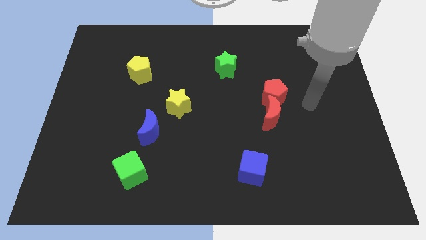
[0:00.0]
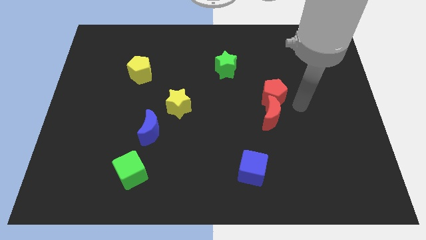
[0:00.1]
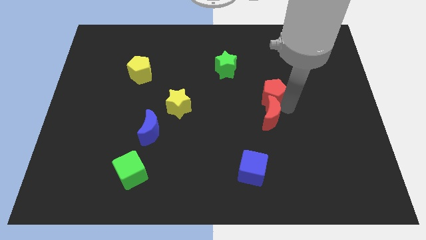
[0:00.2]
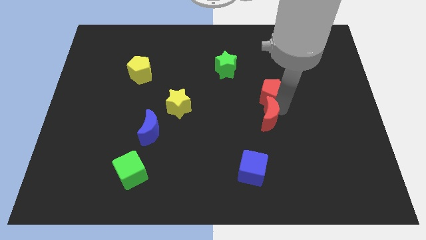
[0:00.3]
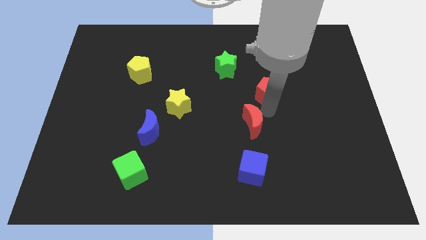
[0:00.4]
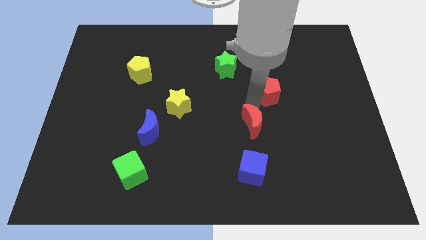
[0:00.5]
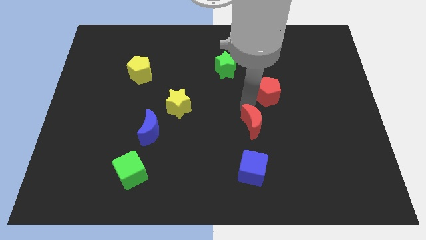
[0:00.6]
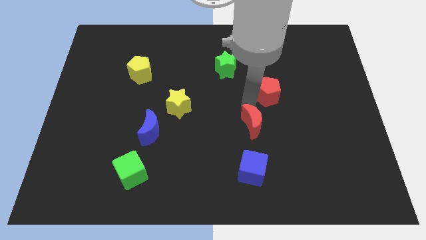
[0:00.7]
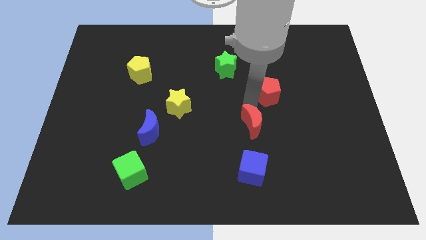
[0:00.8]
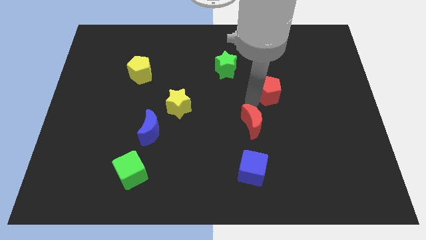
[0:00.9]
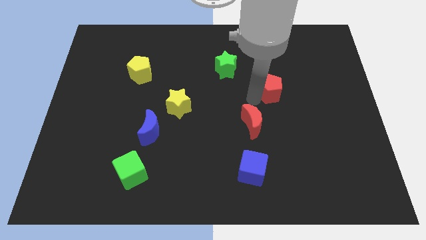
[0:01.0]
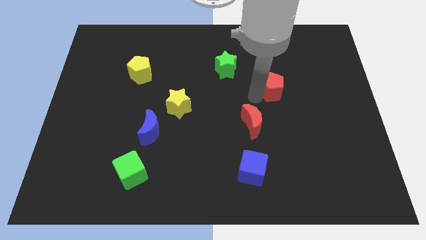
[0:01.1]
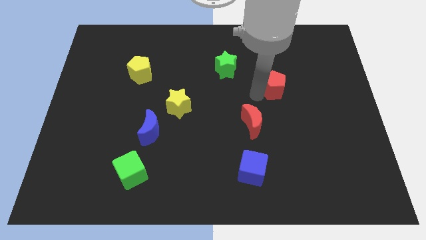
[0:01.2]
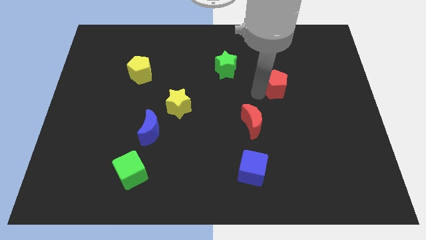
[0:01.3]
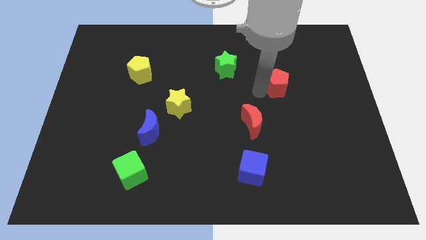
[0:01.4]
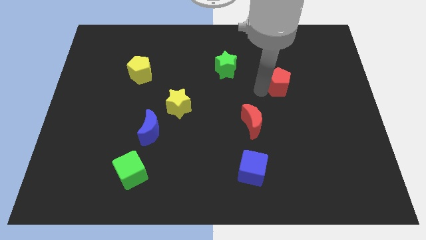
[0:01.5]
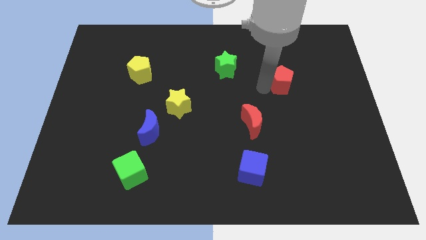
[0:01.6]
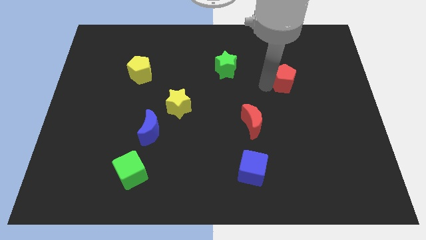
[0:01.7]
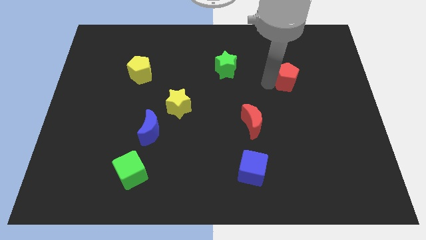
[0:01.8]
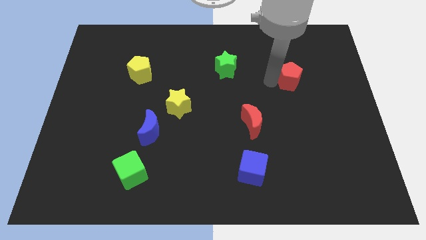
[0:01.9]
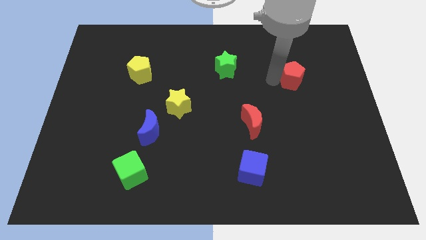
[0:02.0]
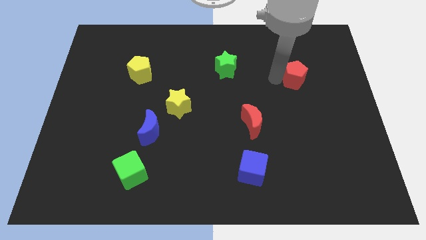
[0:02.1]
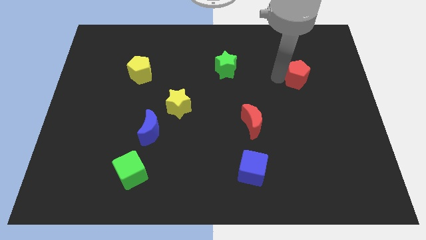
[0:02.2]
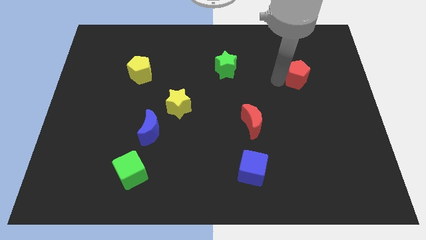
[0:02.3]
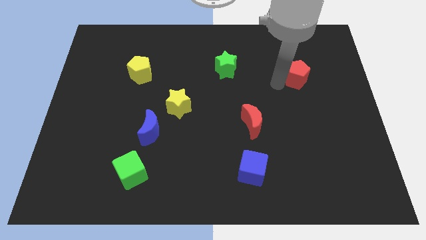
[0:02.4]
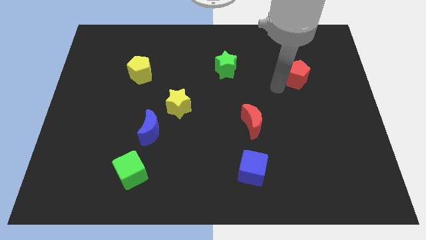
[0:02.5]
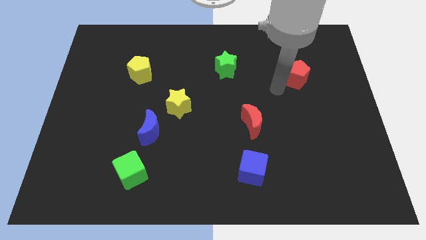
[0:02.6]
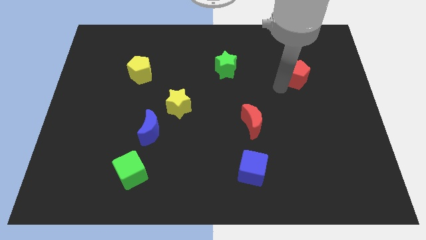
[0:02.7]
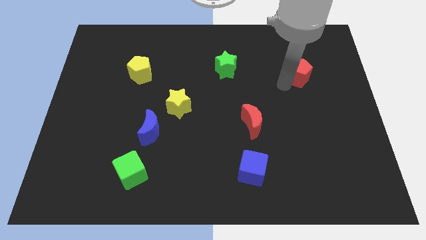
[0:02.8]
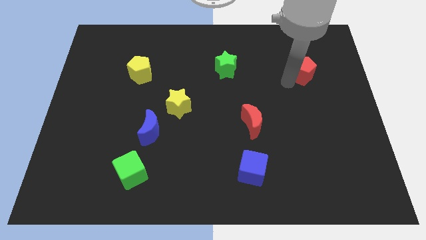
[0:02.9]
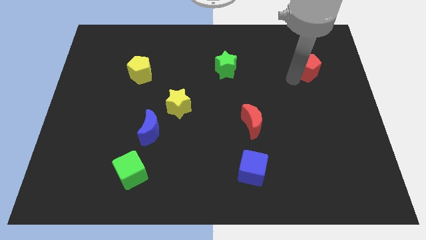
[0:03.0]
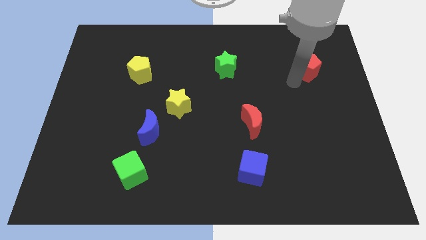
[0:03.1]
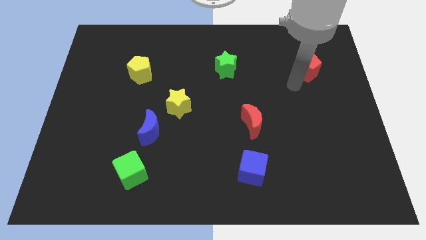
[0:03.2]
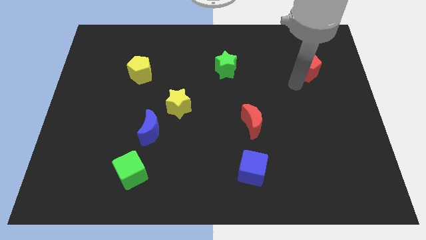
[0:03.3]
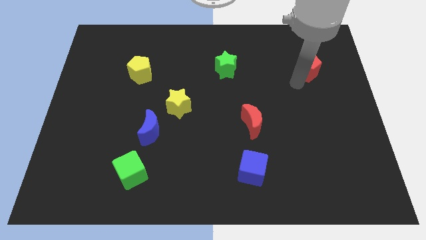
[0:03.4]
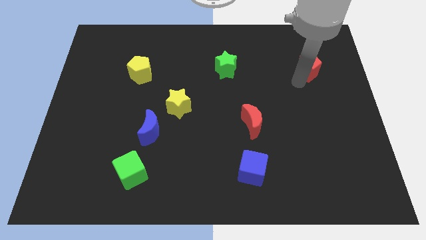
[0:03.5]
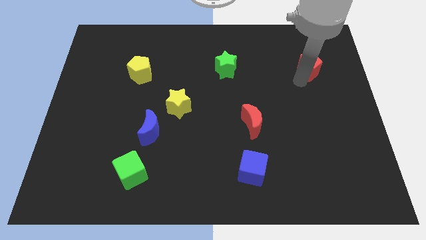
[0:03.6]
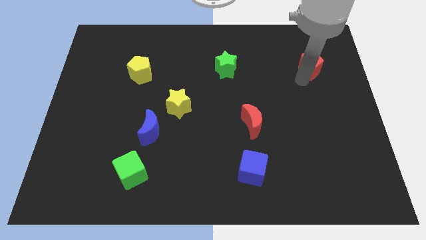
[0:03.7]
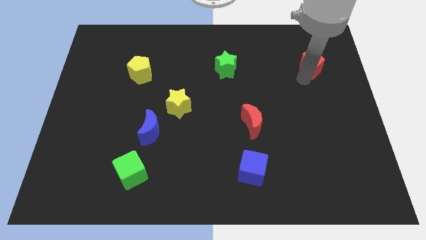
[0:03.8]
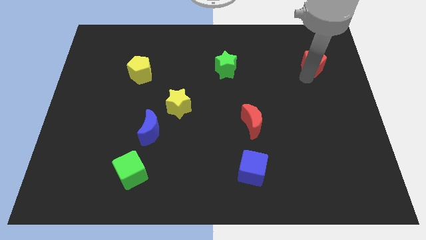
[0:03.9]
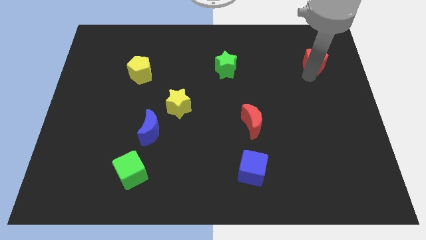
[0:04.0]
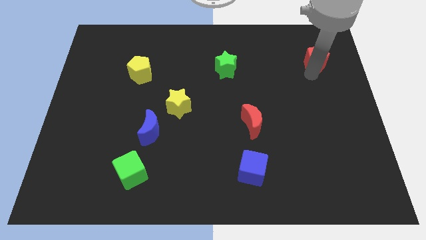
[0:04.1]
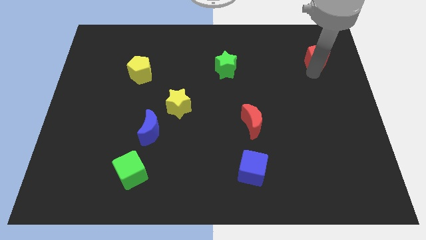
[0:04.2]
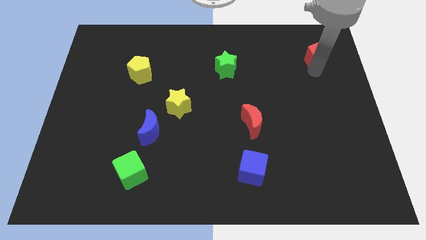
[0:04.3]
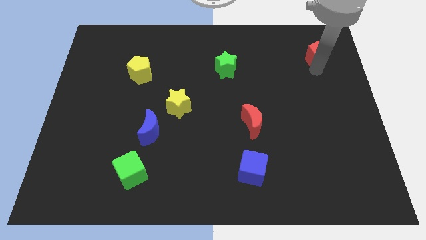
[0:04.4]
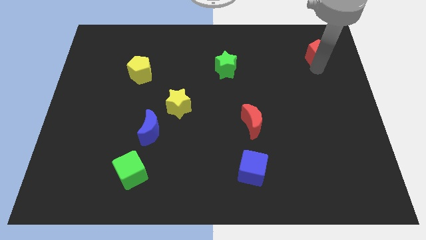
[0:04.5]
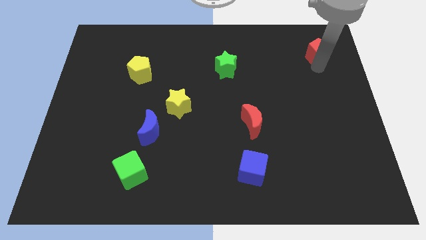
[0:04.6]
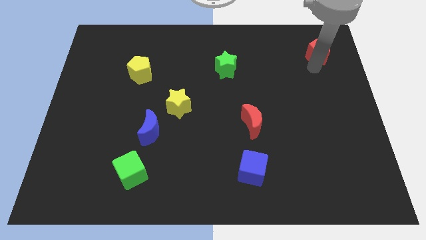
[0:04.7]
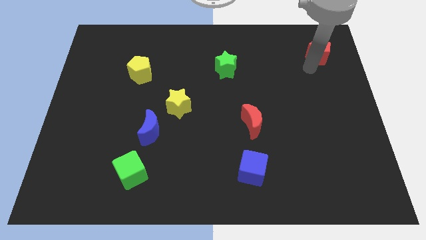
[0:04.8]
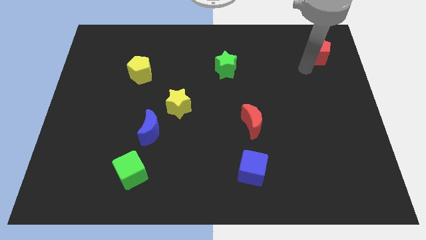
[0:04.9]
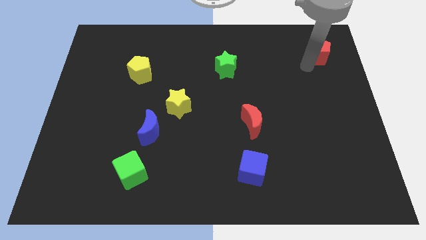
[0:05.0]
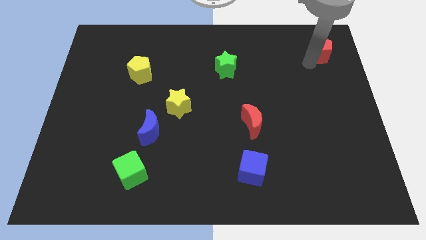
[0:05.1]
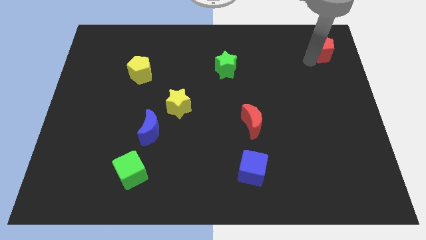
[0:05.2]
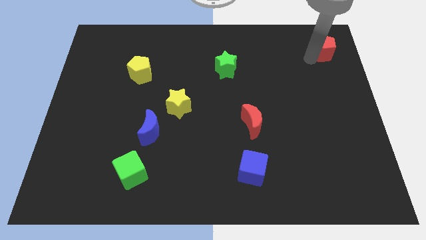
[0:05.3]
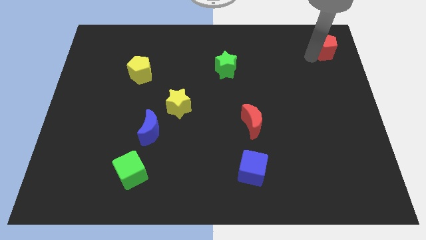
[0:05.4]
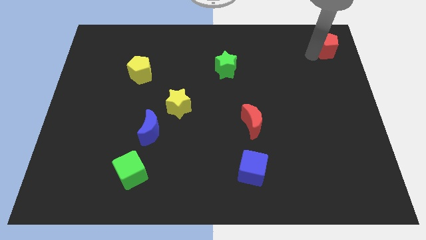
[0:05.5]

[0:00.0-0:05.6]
slide the red pentagon to the top right corner

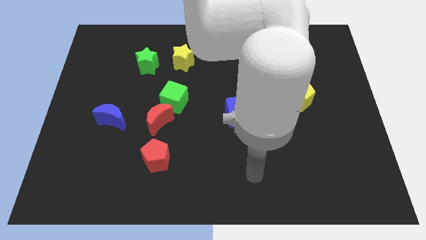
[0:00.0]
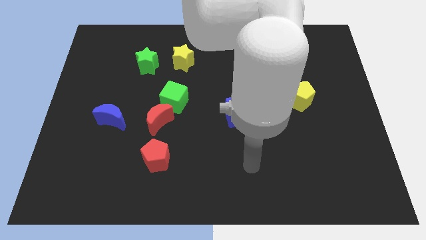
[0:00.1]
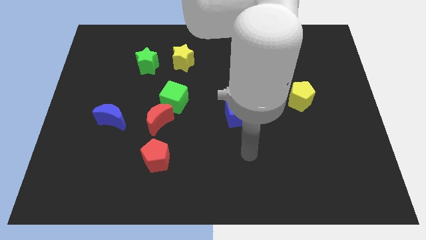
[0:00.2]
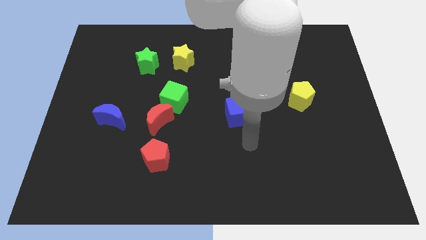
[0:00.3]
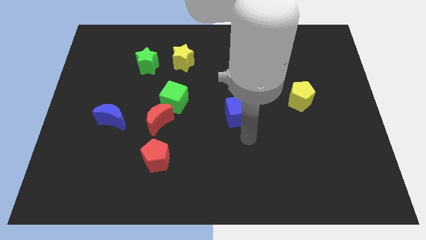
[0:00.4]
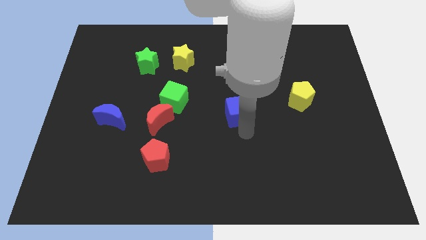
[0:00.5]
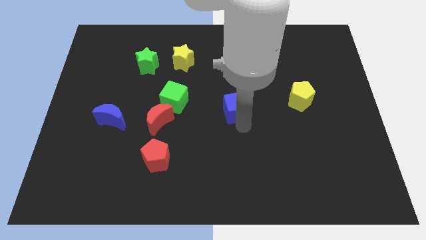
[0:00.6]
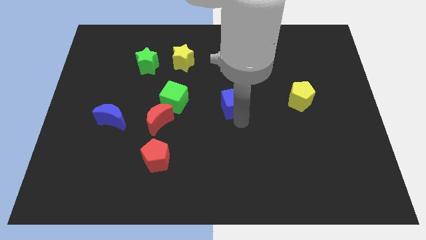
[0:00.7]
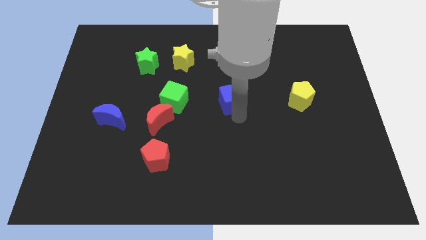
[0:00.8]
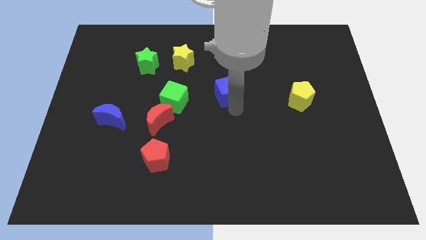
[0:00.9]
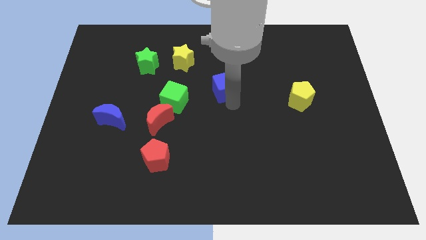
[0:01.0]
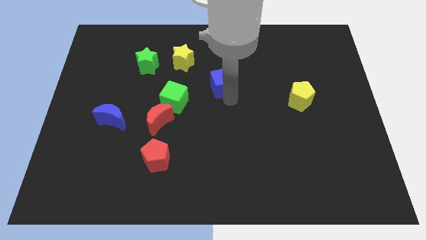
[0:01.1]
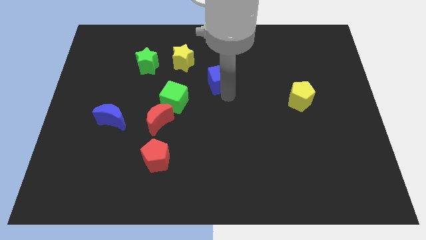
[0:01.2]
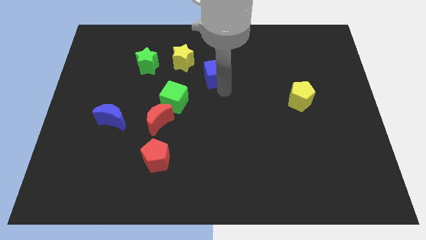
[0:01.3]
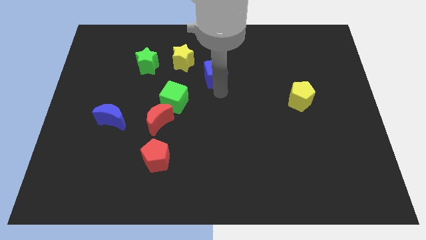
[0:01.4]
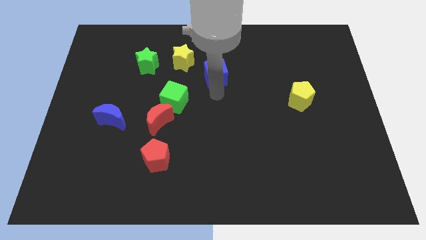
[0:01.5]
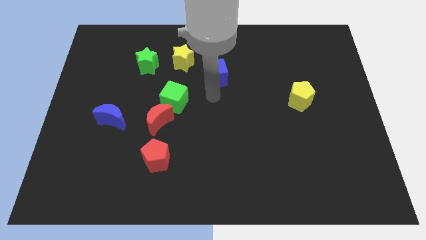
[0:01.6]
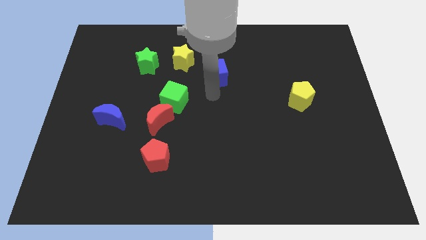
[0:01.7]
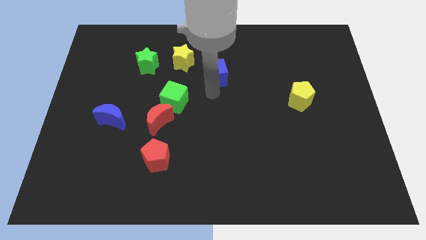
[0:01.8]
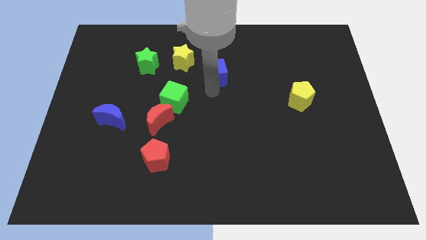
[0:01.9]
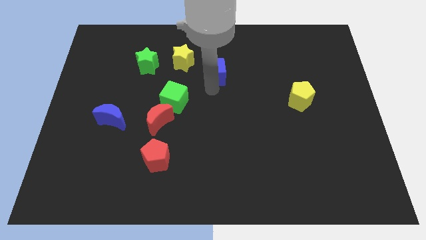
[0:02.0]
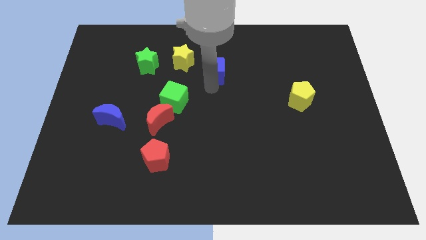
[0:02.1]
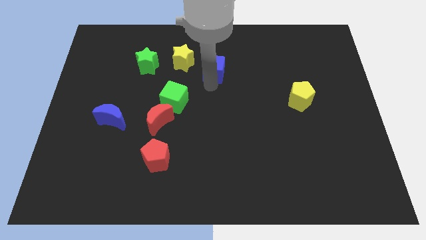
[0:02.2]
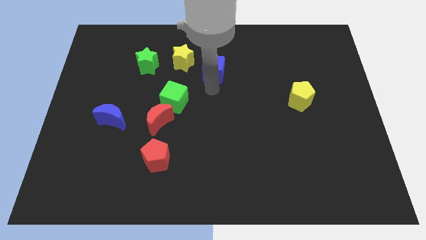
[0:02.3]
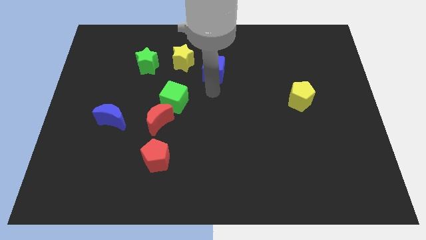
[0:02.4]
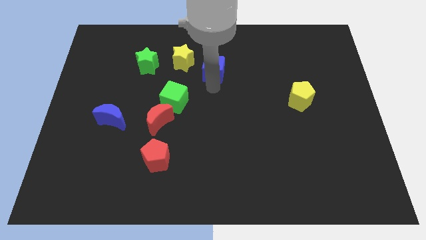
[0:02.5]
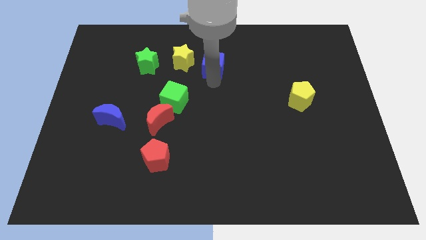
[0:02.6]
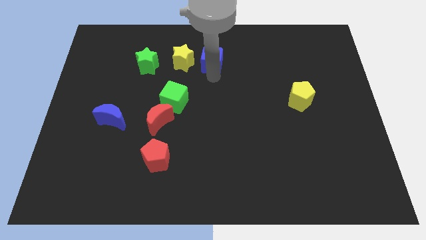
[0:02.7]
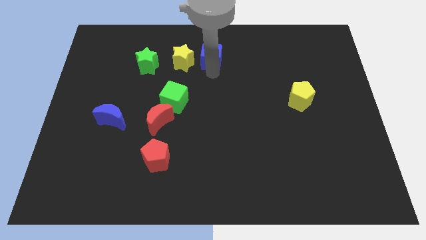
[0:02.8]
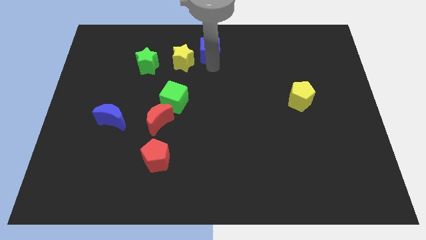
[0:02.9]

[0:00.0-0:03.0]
slide the blue cube to the top side
